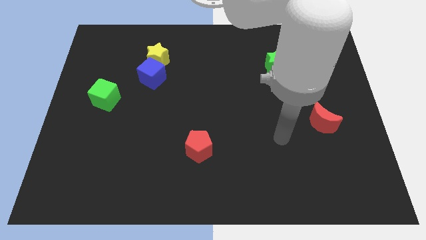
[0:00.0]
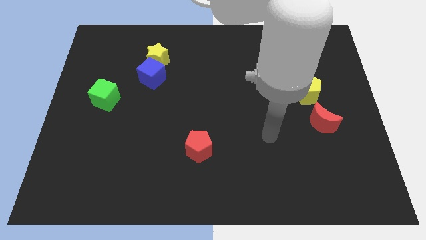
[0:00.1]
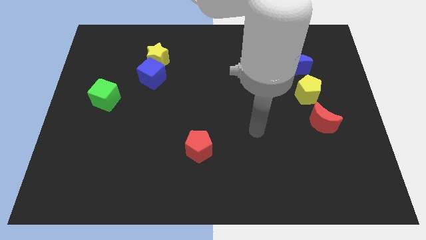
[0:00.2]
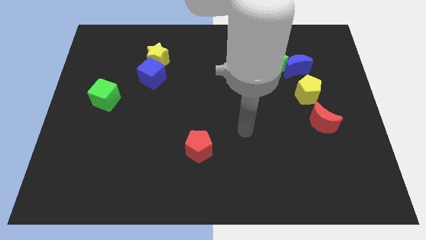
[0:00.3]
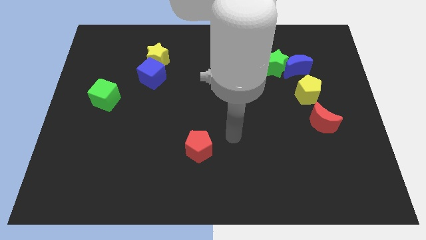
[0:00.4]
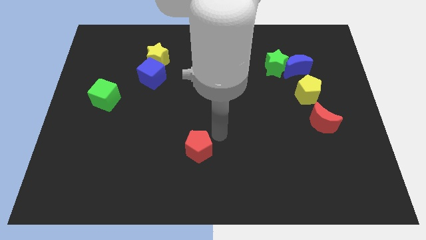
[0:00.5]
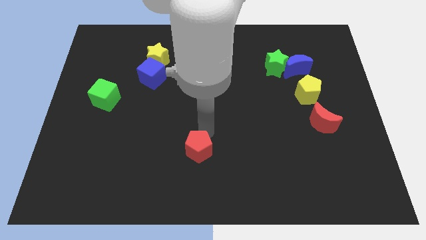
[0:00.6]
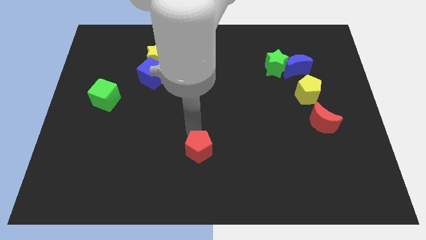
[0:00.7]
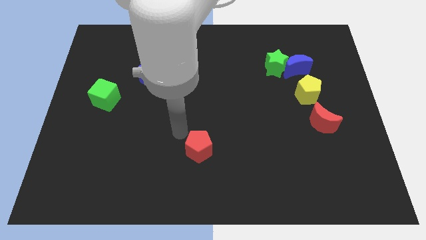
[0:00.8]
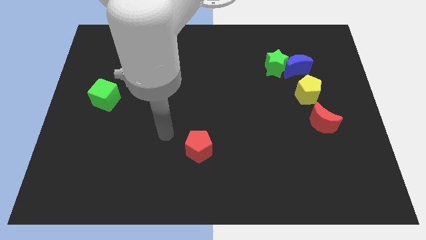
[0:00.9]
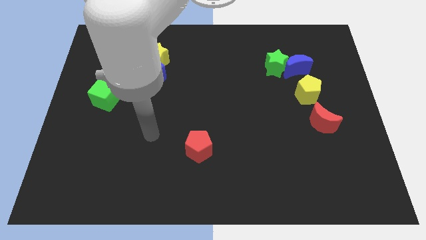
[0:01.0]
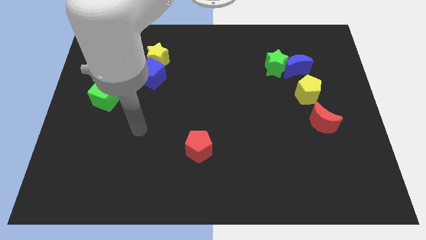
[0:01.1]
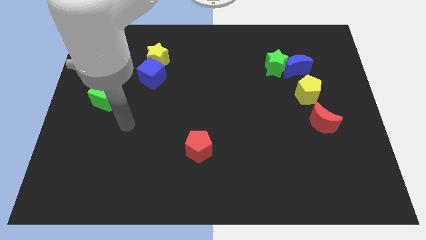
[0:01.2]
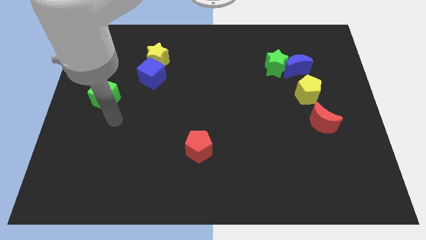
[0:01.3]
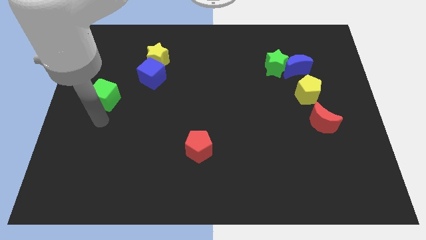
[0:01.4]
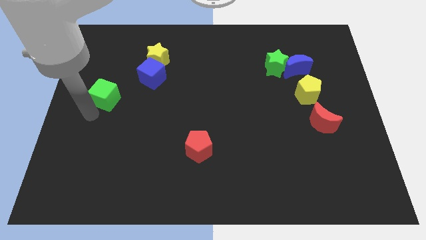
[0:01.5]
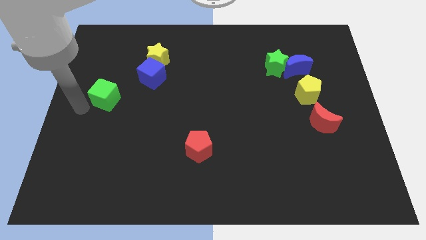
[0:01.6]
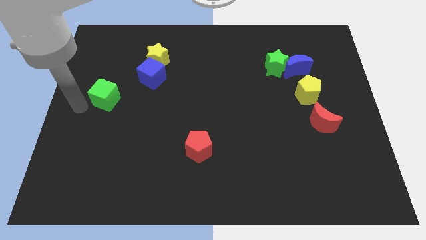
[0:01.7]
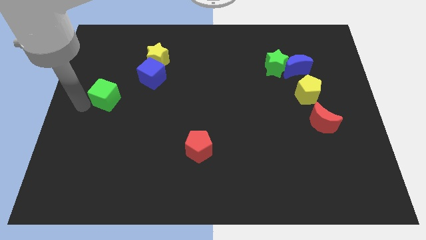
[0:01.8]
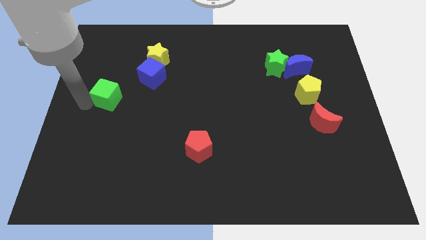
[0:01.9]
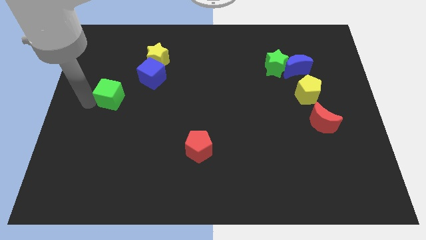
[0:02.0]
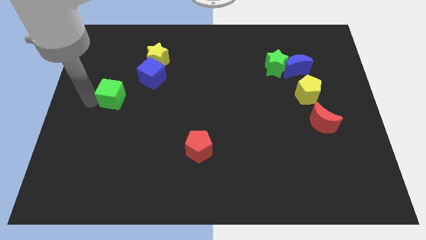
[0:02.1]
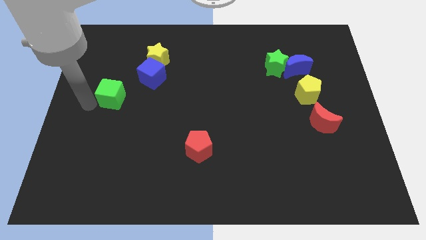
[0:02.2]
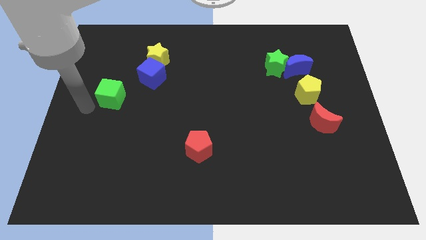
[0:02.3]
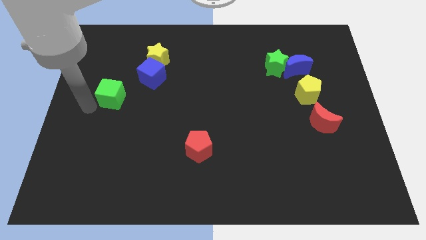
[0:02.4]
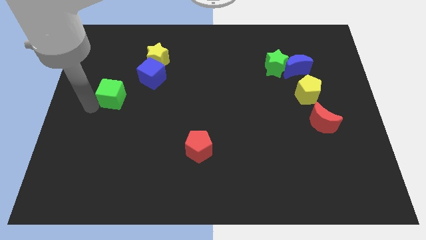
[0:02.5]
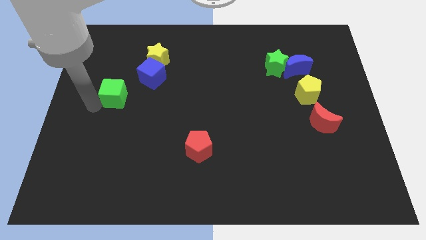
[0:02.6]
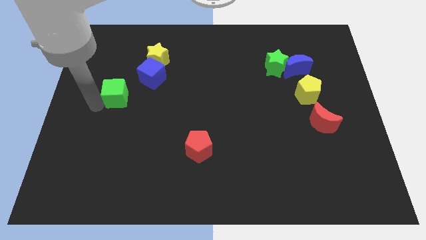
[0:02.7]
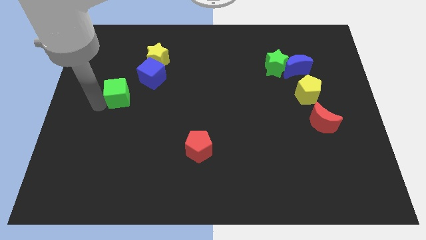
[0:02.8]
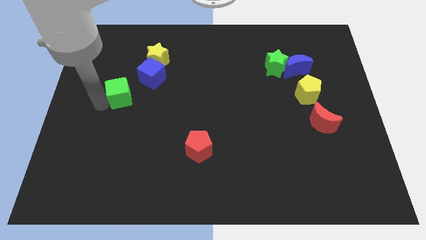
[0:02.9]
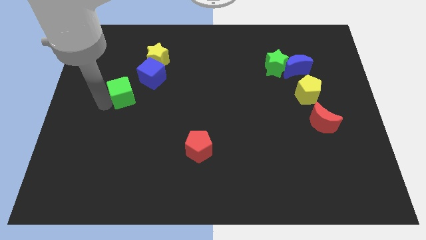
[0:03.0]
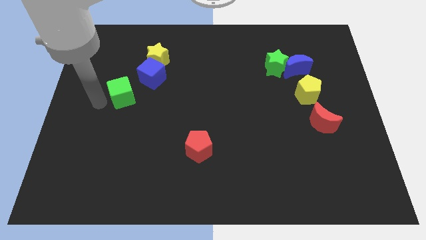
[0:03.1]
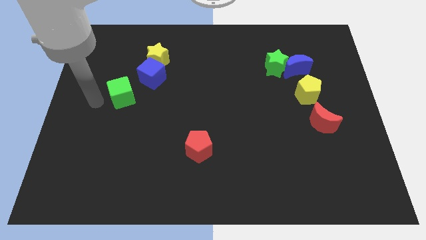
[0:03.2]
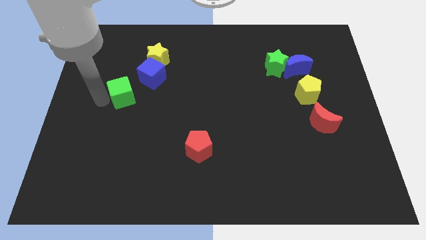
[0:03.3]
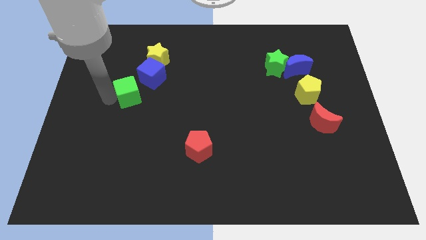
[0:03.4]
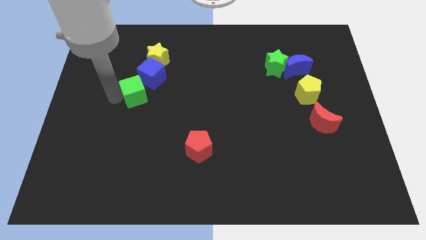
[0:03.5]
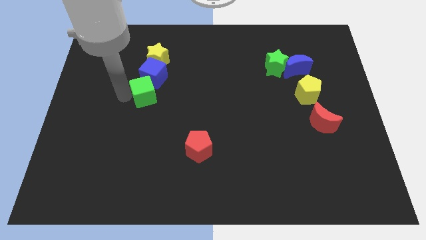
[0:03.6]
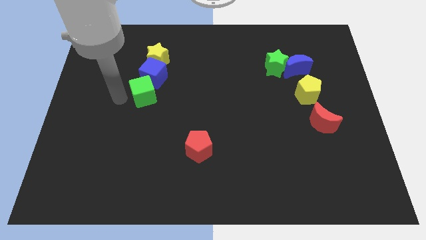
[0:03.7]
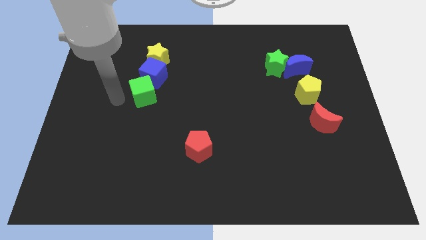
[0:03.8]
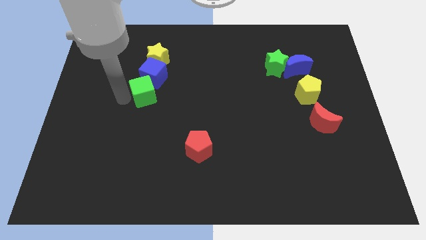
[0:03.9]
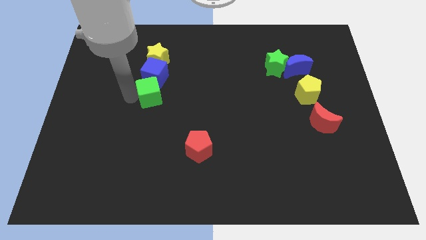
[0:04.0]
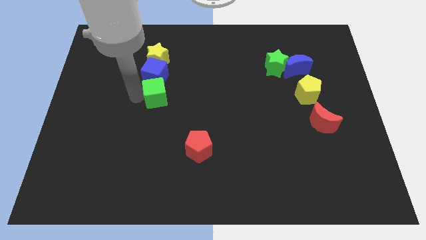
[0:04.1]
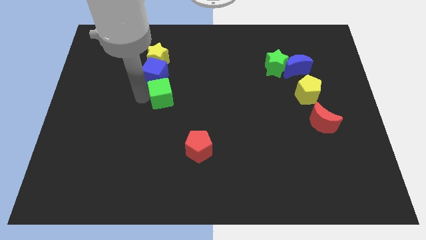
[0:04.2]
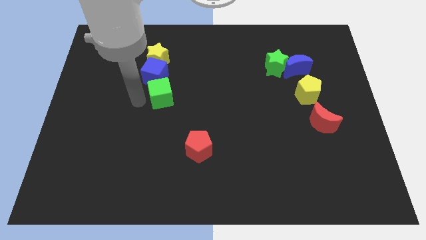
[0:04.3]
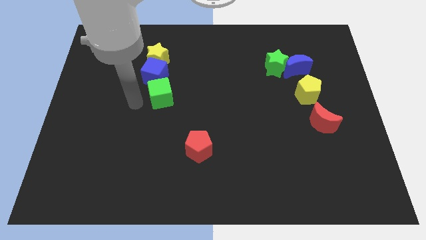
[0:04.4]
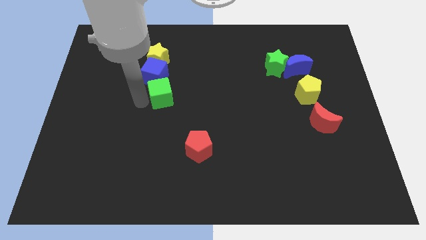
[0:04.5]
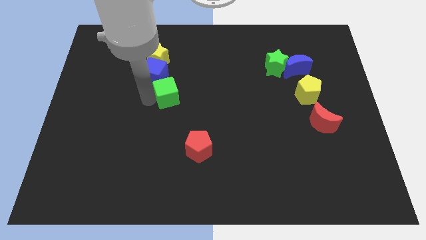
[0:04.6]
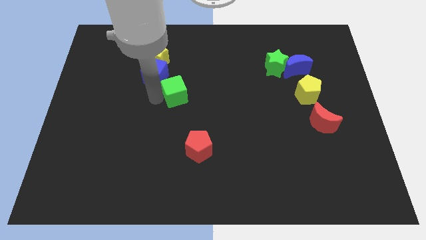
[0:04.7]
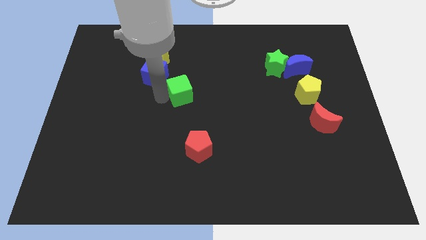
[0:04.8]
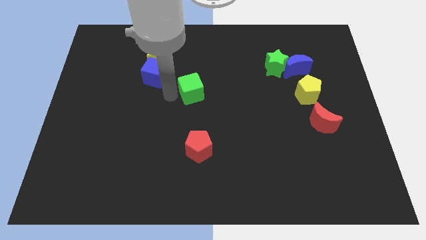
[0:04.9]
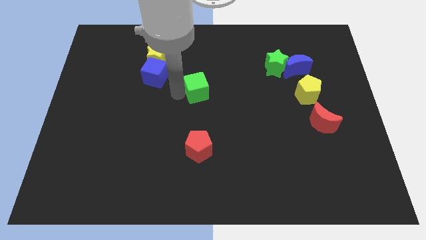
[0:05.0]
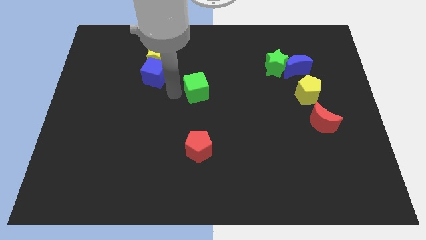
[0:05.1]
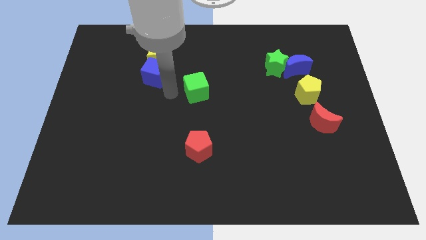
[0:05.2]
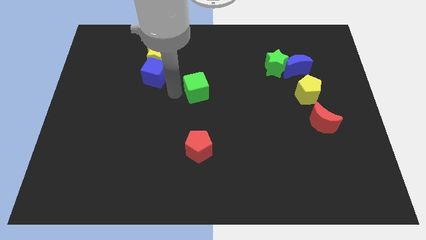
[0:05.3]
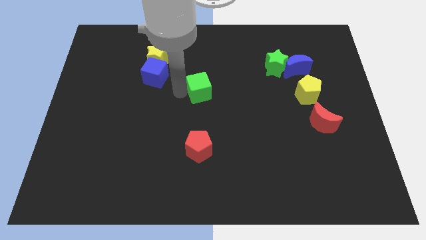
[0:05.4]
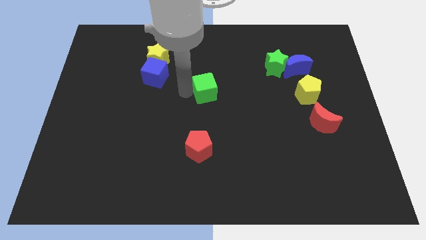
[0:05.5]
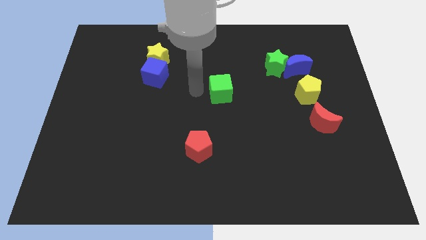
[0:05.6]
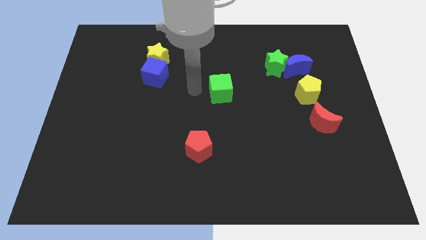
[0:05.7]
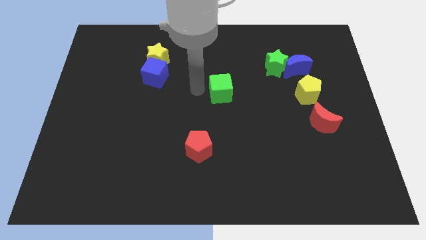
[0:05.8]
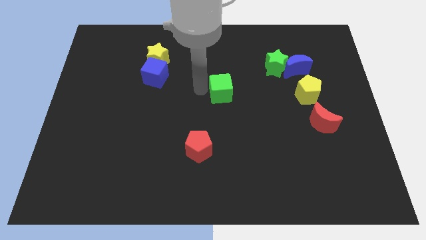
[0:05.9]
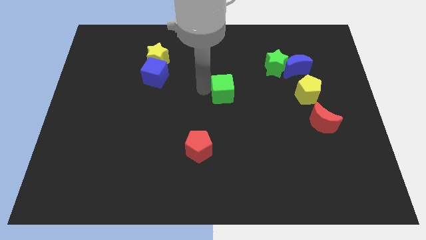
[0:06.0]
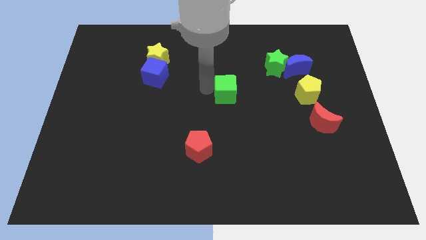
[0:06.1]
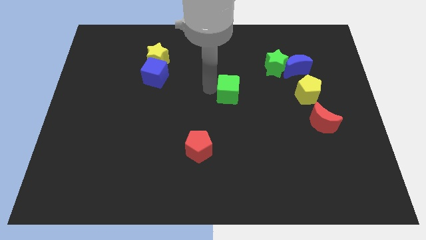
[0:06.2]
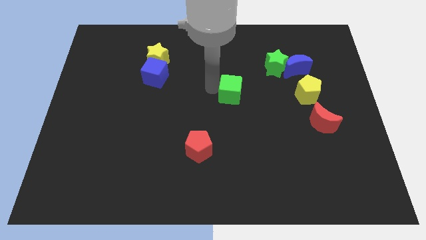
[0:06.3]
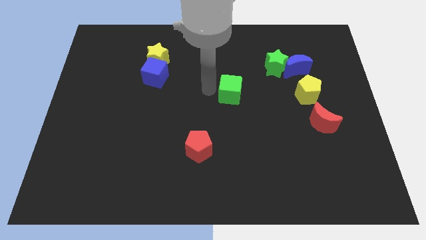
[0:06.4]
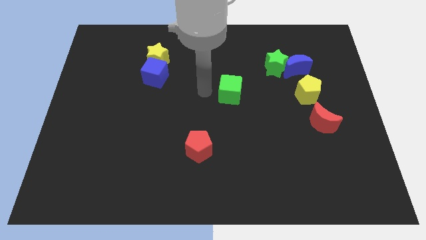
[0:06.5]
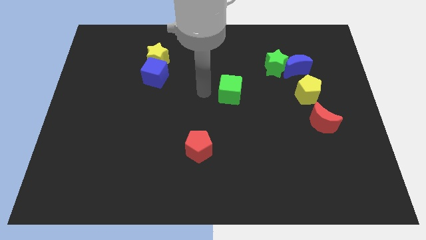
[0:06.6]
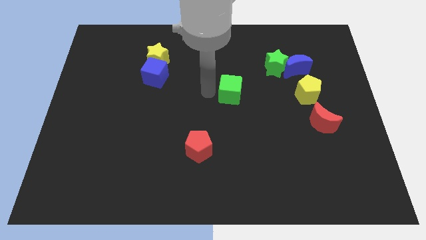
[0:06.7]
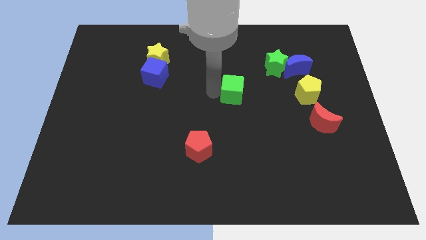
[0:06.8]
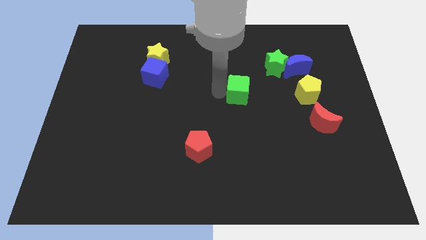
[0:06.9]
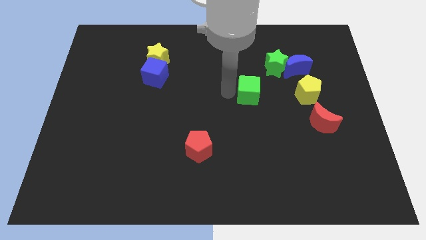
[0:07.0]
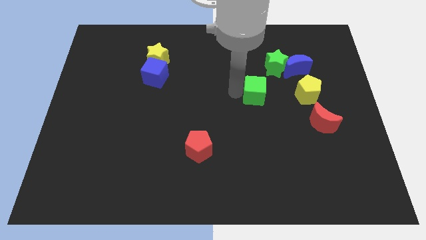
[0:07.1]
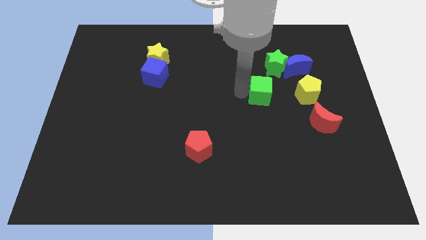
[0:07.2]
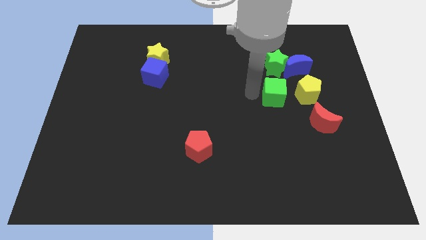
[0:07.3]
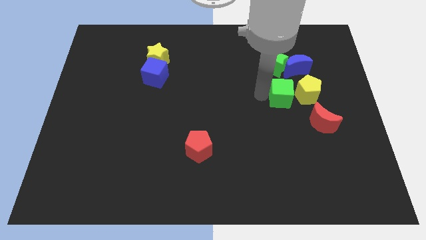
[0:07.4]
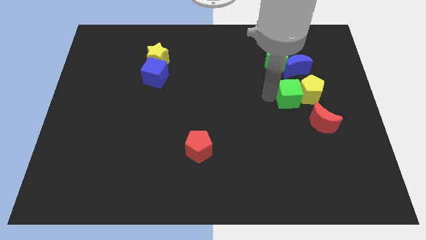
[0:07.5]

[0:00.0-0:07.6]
put the green cube next to the yellow pentagon
